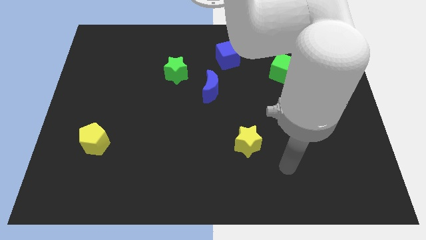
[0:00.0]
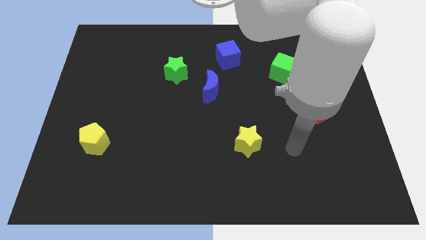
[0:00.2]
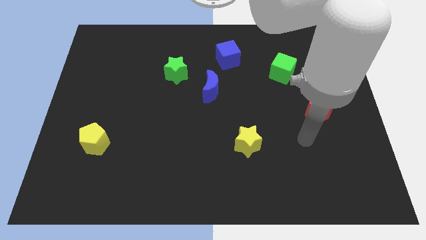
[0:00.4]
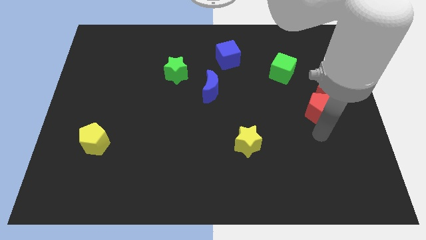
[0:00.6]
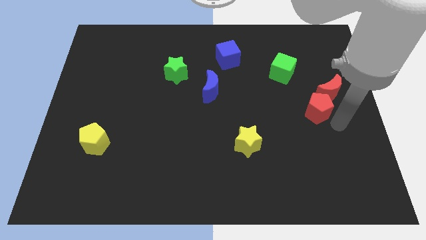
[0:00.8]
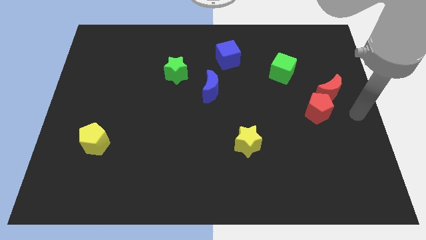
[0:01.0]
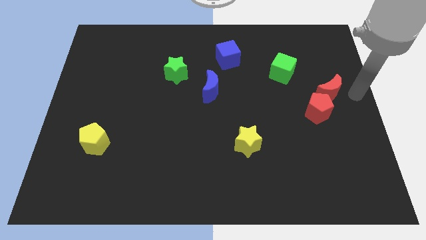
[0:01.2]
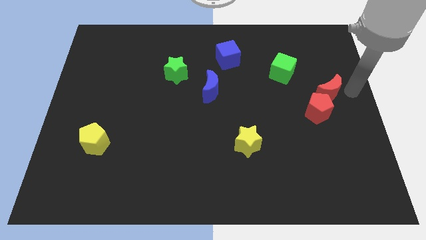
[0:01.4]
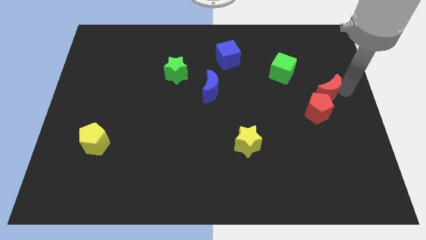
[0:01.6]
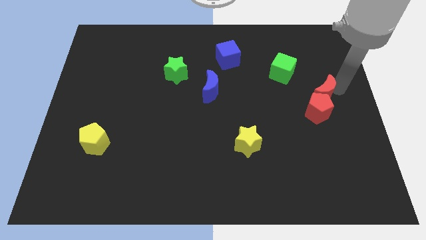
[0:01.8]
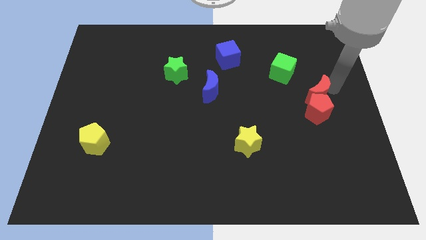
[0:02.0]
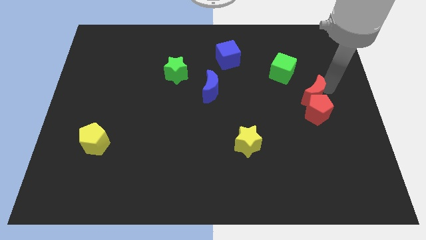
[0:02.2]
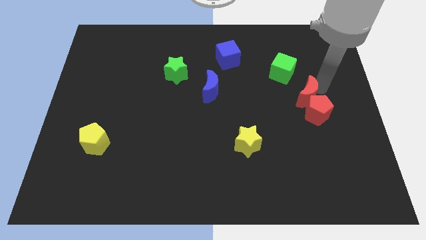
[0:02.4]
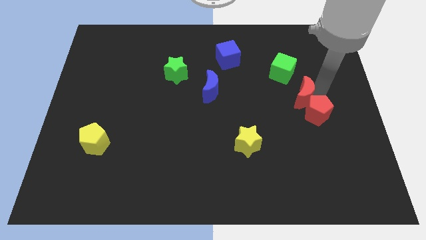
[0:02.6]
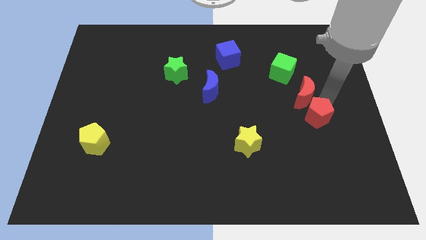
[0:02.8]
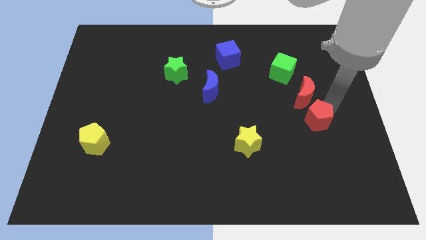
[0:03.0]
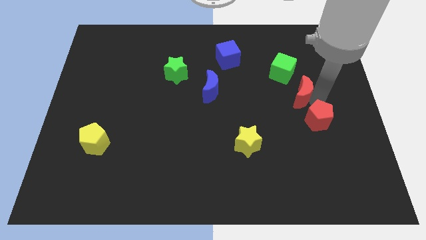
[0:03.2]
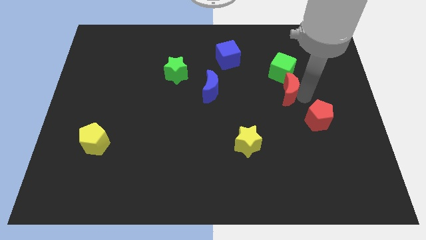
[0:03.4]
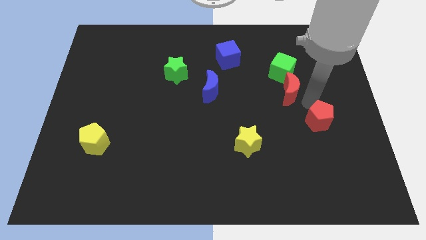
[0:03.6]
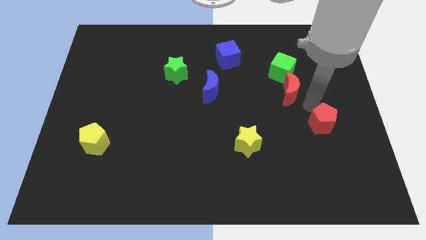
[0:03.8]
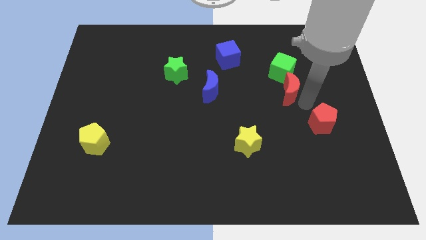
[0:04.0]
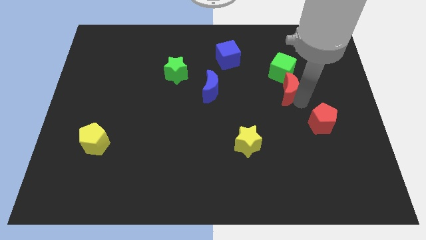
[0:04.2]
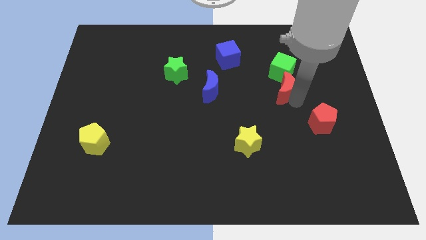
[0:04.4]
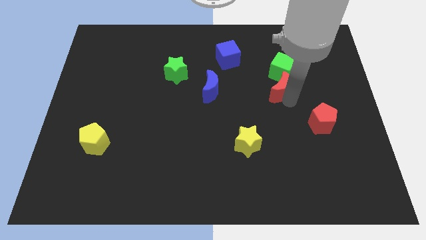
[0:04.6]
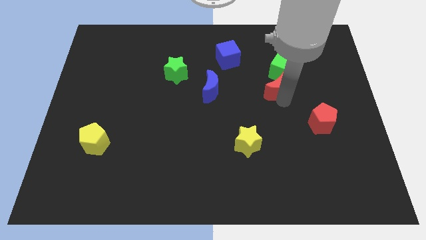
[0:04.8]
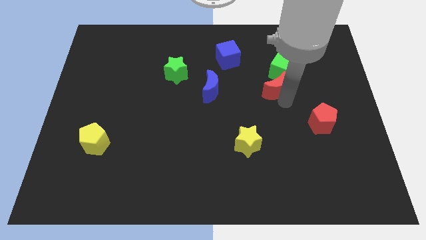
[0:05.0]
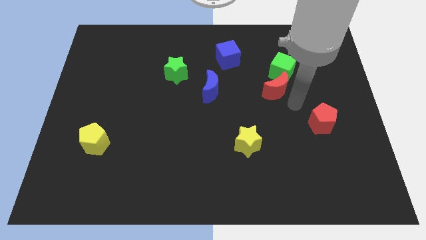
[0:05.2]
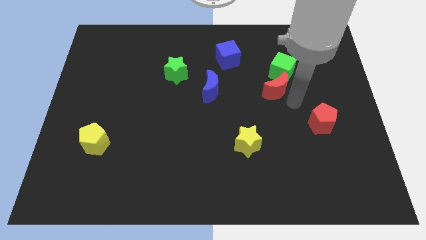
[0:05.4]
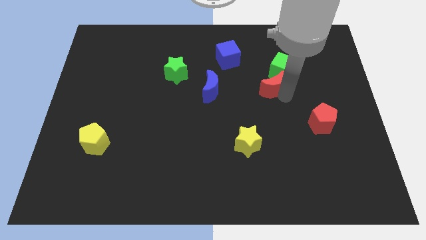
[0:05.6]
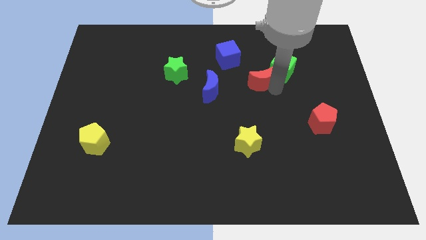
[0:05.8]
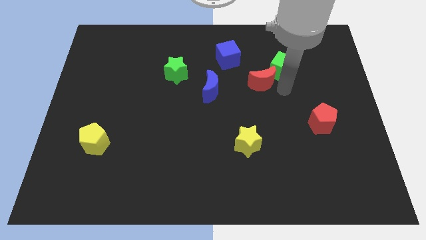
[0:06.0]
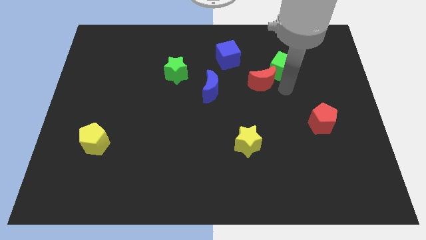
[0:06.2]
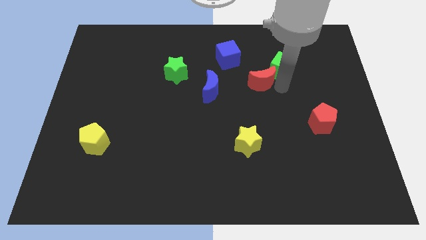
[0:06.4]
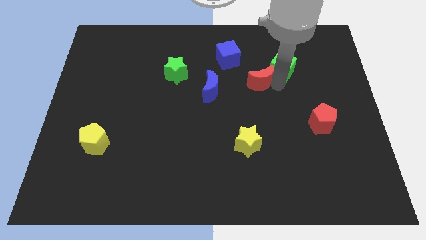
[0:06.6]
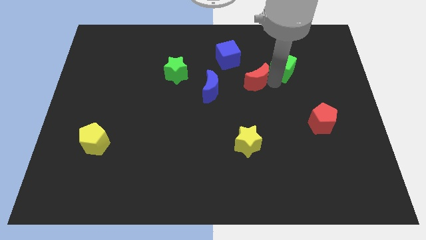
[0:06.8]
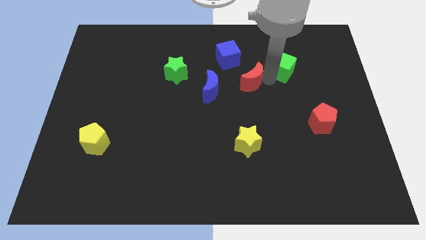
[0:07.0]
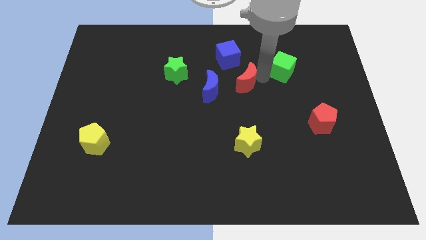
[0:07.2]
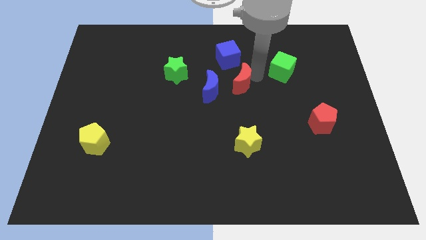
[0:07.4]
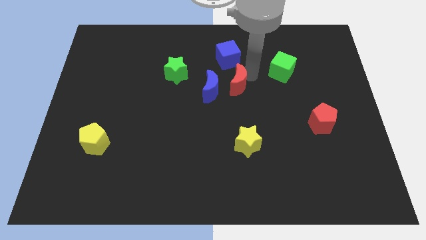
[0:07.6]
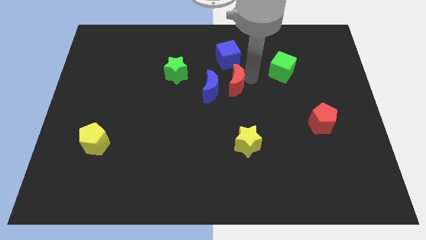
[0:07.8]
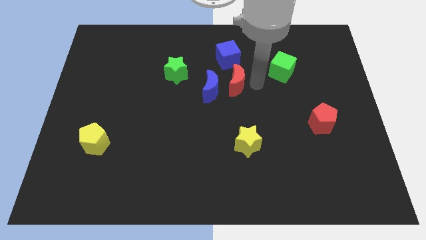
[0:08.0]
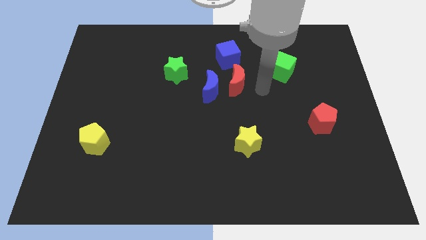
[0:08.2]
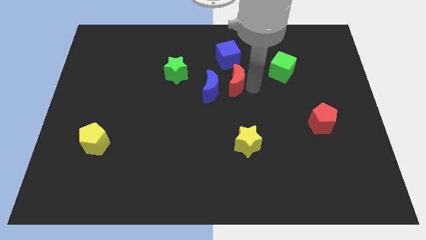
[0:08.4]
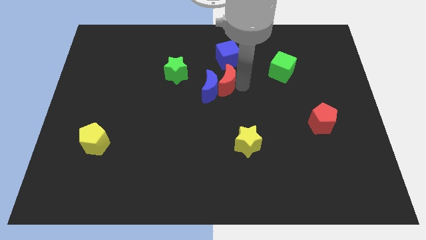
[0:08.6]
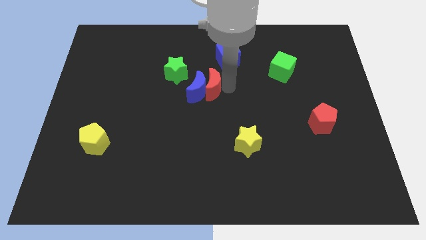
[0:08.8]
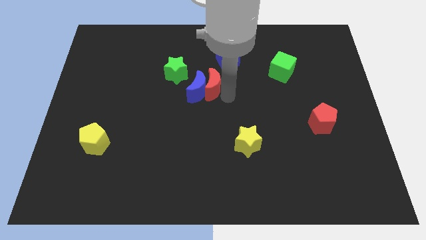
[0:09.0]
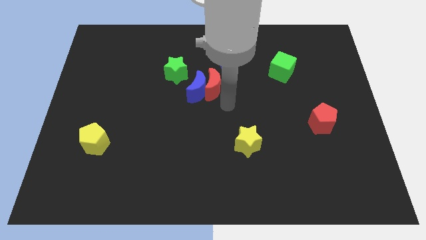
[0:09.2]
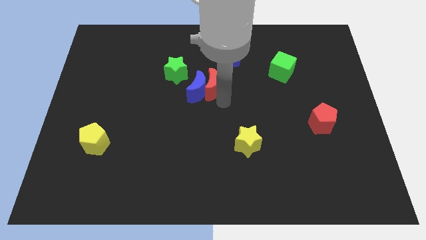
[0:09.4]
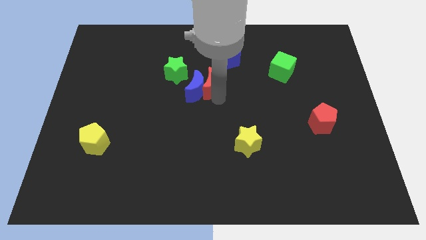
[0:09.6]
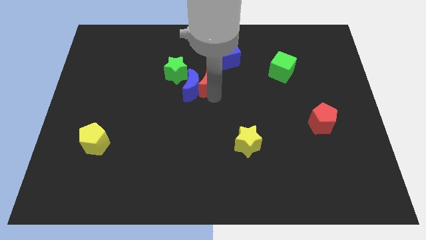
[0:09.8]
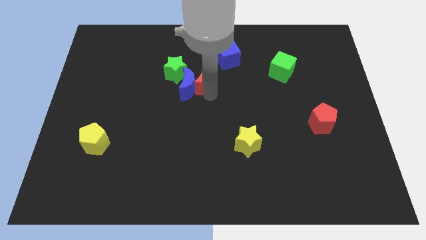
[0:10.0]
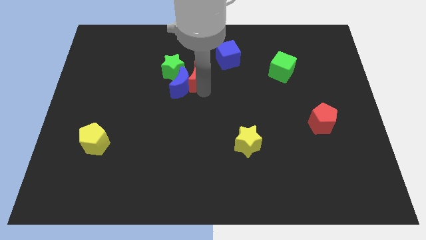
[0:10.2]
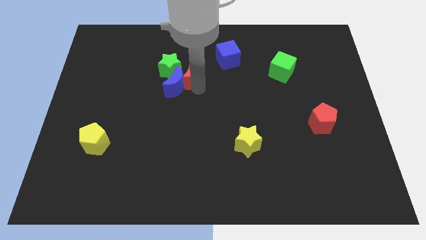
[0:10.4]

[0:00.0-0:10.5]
put the red moon close to the green star

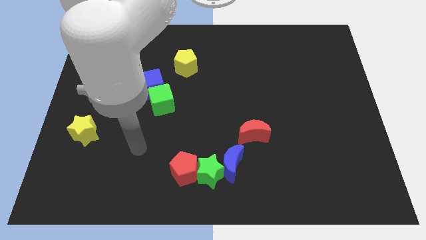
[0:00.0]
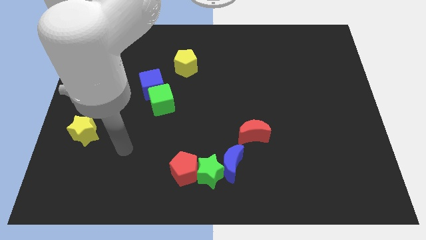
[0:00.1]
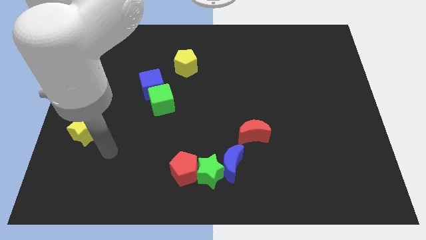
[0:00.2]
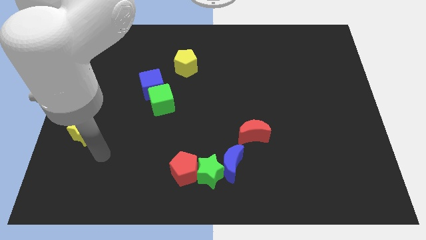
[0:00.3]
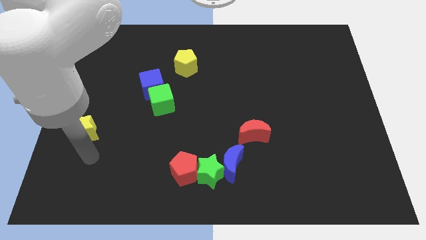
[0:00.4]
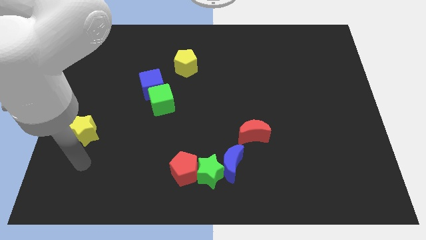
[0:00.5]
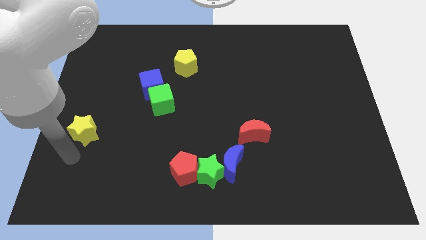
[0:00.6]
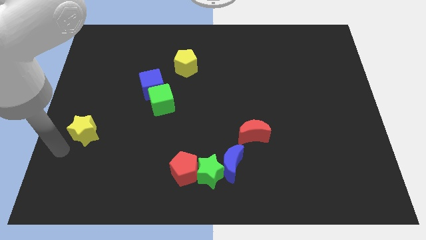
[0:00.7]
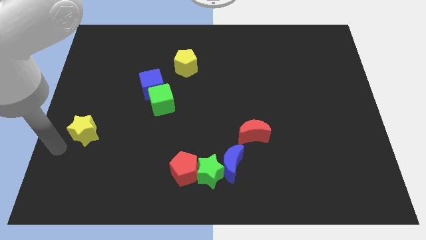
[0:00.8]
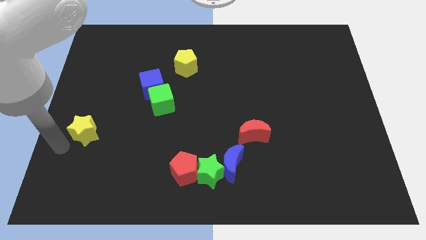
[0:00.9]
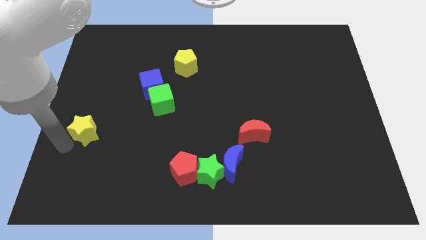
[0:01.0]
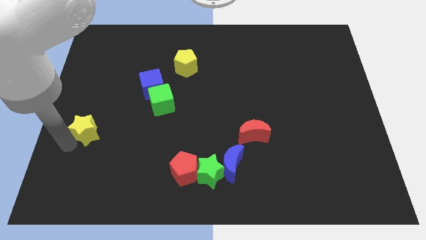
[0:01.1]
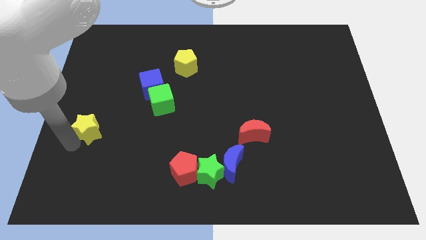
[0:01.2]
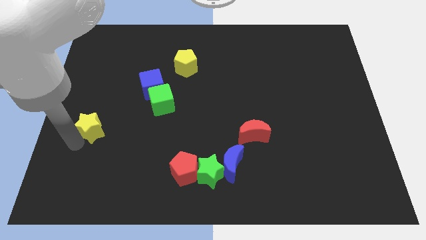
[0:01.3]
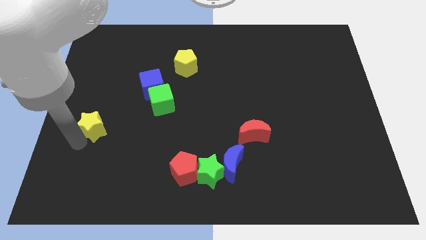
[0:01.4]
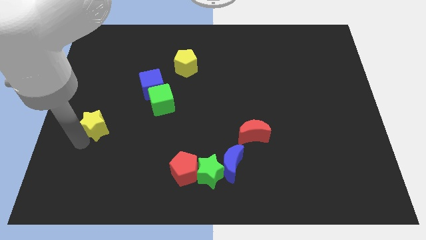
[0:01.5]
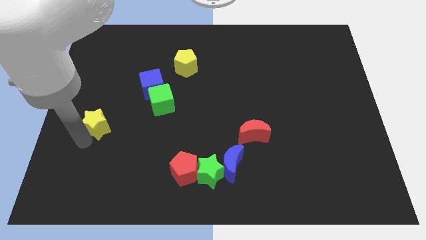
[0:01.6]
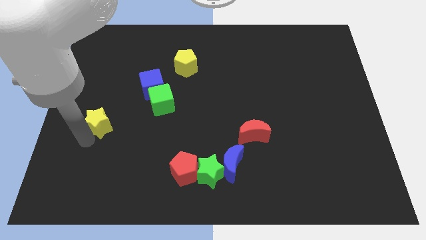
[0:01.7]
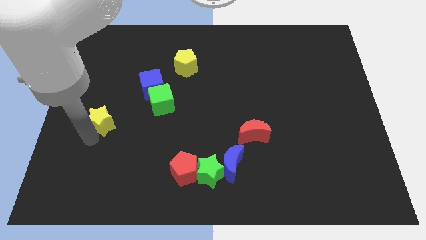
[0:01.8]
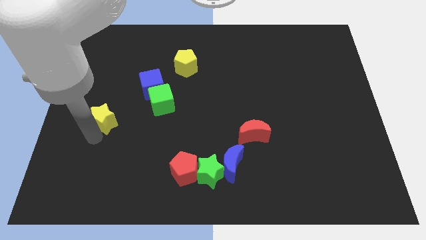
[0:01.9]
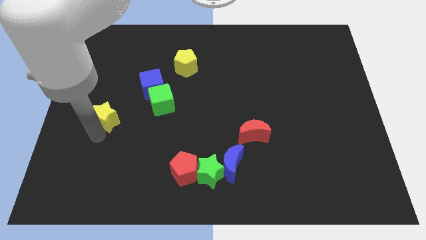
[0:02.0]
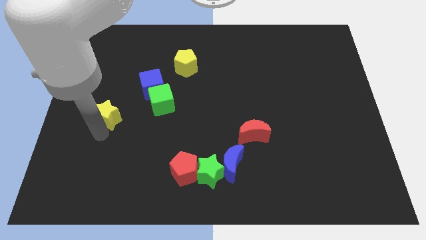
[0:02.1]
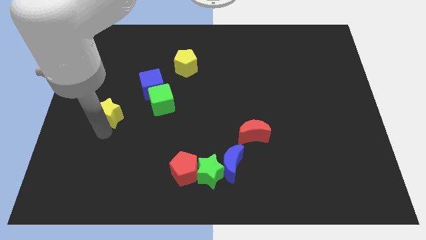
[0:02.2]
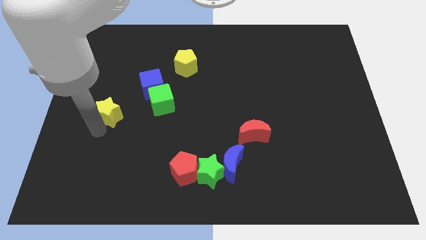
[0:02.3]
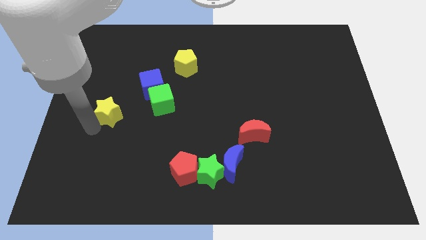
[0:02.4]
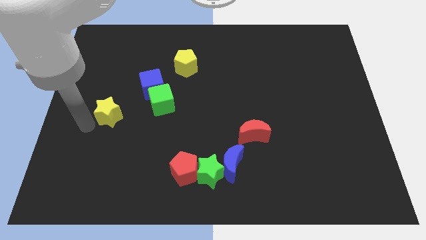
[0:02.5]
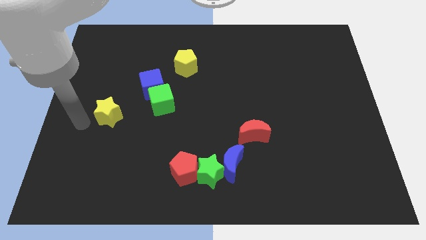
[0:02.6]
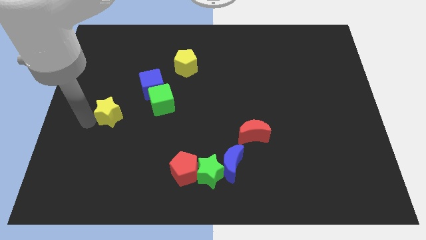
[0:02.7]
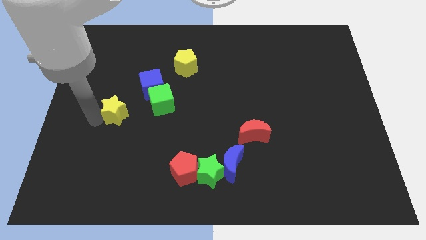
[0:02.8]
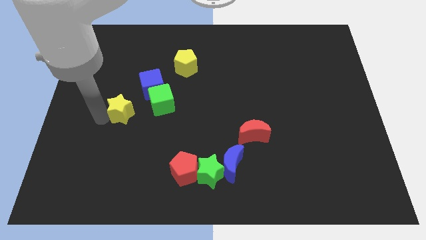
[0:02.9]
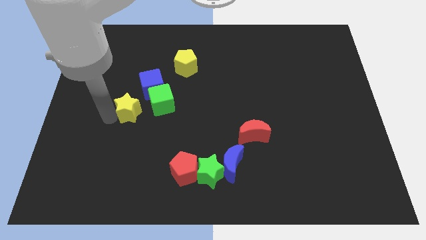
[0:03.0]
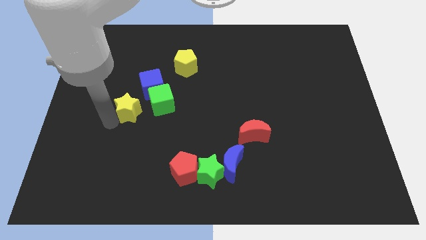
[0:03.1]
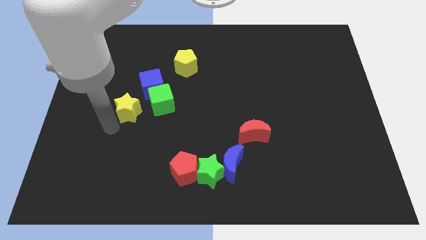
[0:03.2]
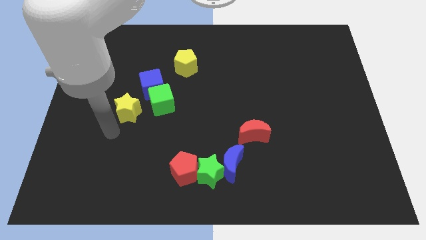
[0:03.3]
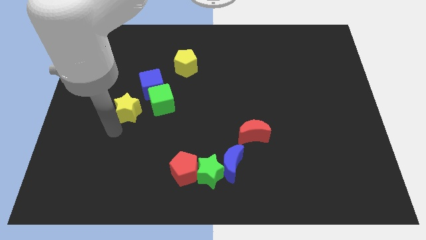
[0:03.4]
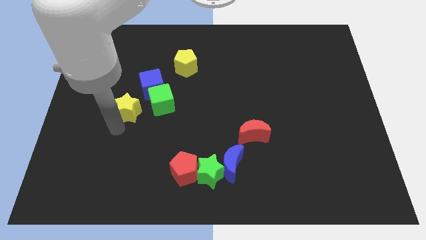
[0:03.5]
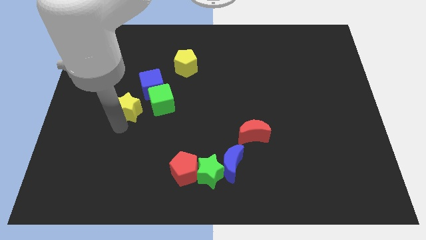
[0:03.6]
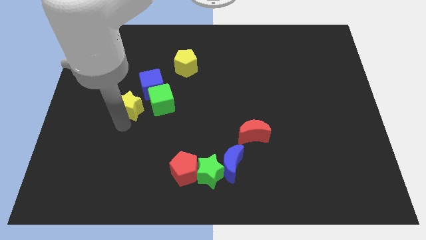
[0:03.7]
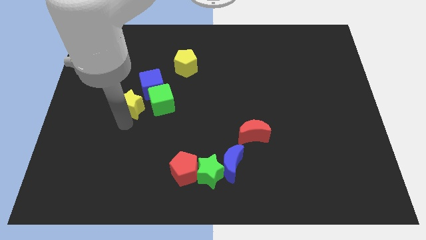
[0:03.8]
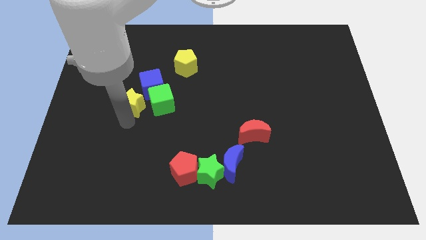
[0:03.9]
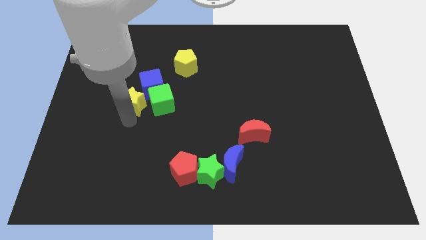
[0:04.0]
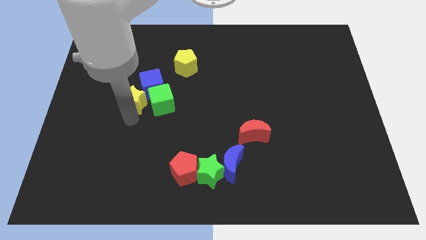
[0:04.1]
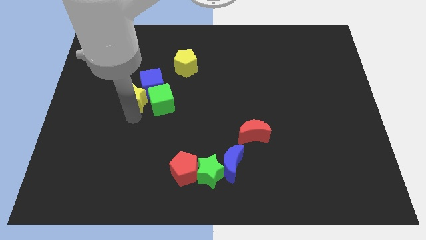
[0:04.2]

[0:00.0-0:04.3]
move the yellow star to the blue cube
